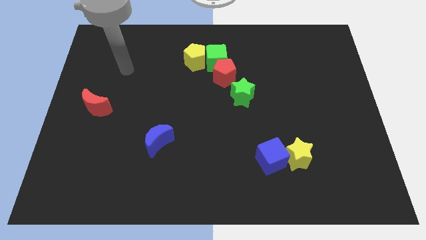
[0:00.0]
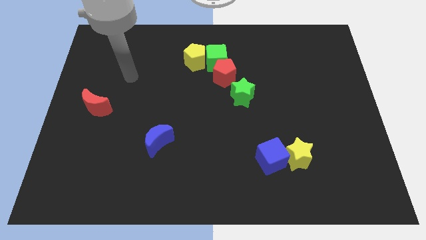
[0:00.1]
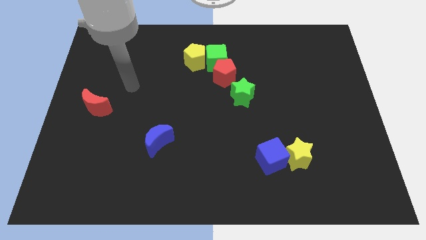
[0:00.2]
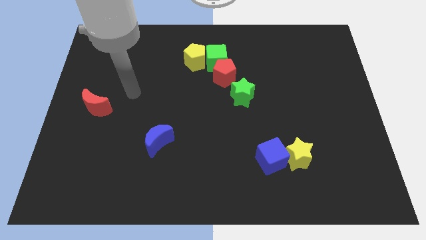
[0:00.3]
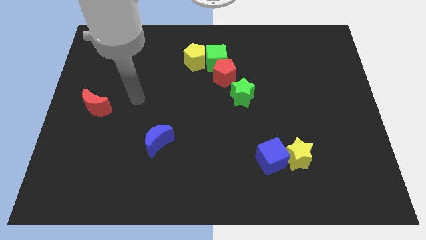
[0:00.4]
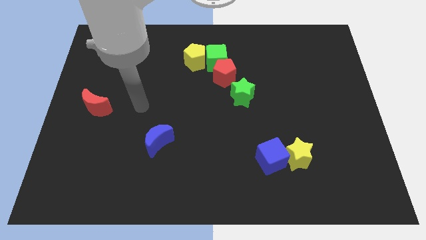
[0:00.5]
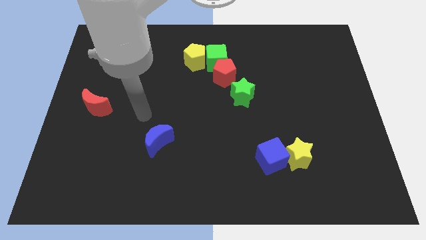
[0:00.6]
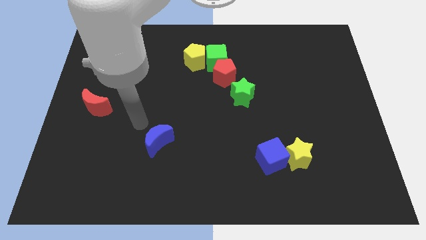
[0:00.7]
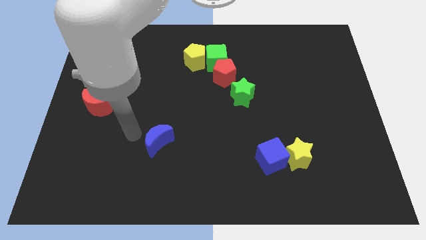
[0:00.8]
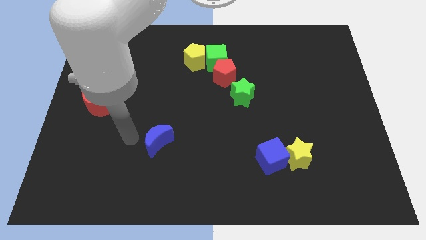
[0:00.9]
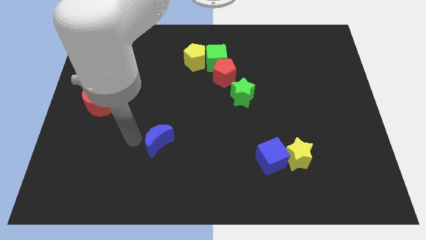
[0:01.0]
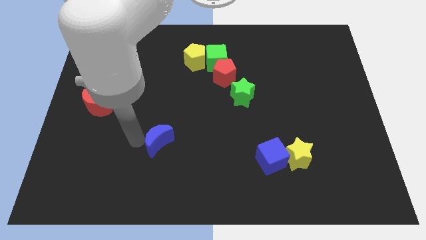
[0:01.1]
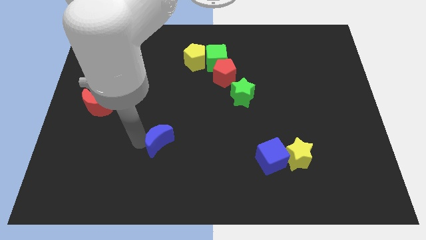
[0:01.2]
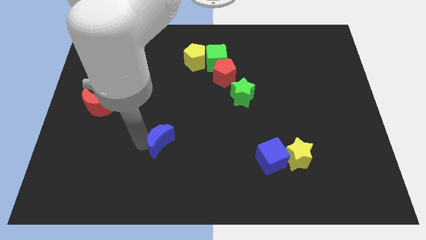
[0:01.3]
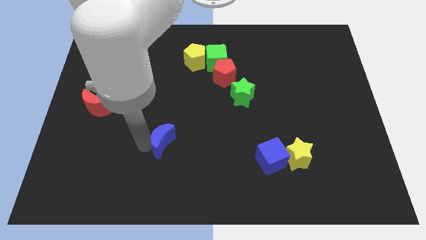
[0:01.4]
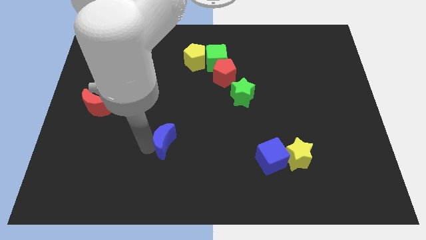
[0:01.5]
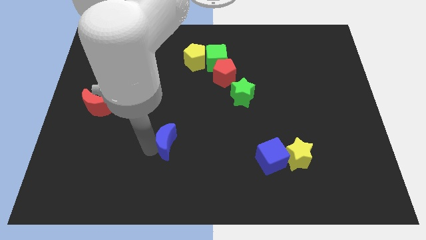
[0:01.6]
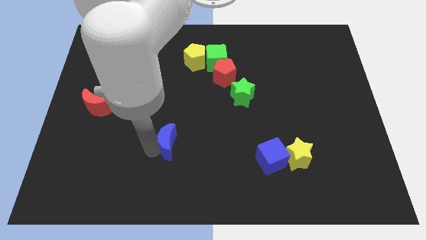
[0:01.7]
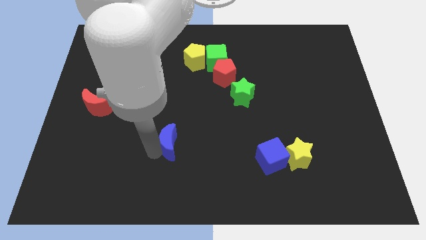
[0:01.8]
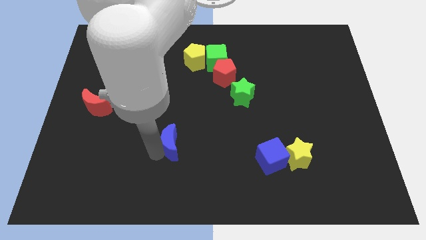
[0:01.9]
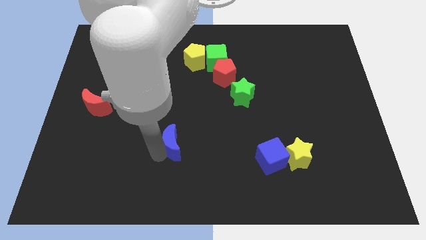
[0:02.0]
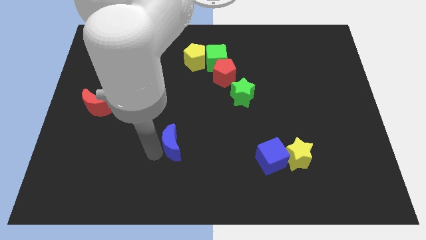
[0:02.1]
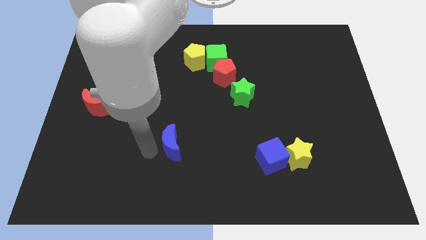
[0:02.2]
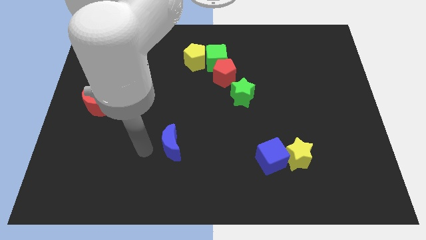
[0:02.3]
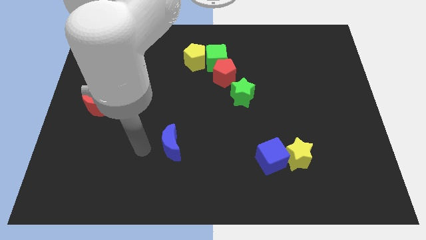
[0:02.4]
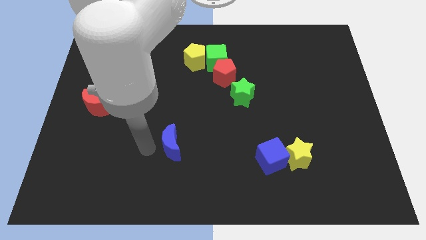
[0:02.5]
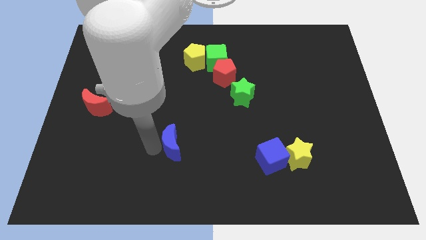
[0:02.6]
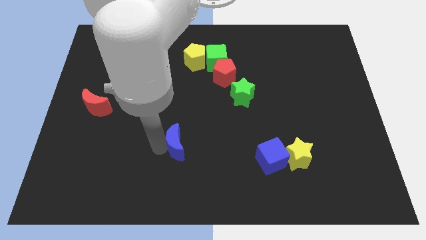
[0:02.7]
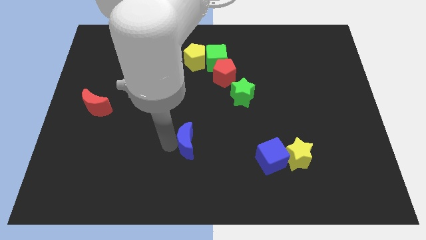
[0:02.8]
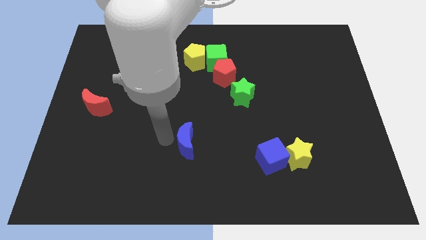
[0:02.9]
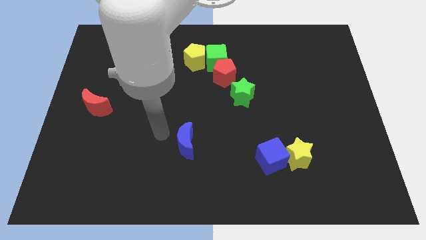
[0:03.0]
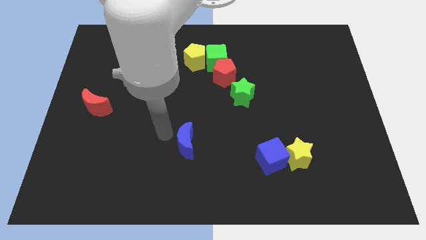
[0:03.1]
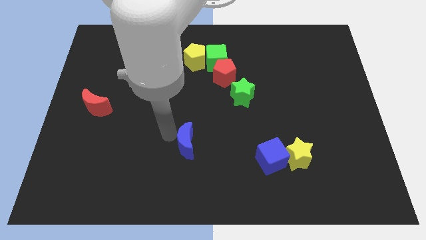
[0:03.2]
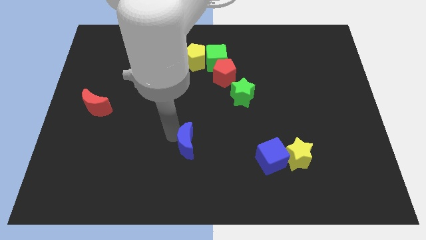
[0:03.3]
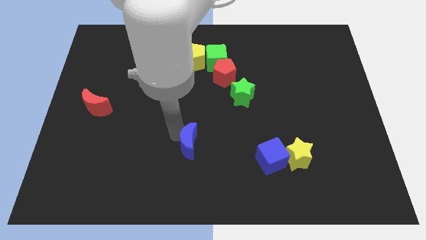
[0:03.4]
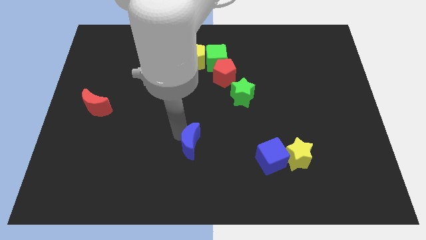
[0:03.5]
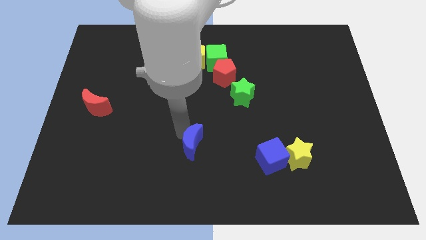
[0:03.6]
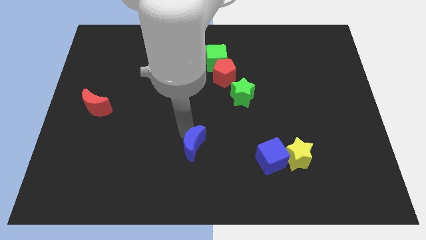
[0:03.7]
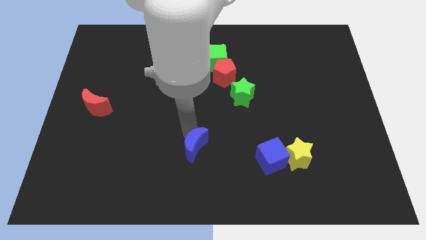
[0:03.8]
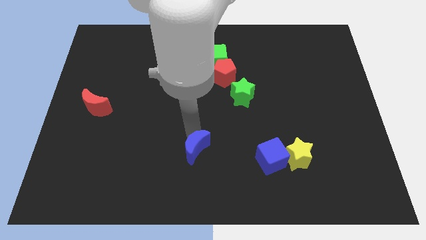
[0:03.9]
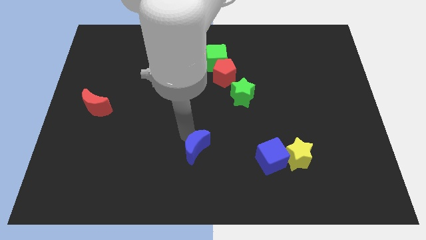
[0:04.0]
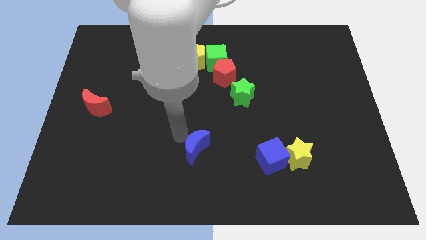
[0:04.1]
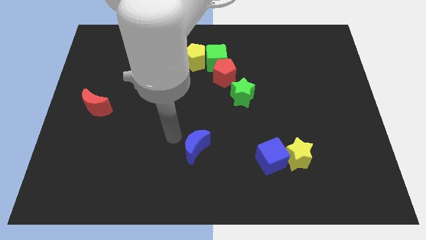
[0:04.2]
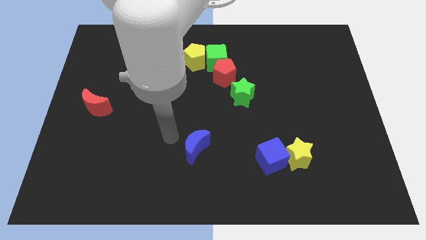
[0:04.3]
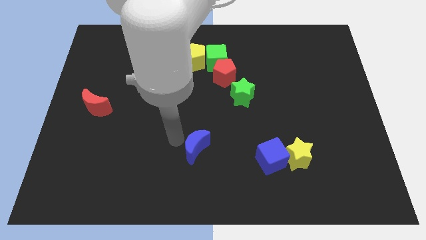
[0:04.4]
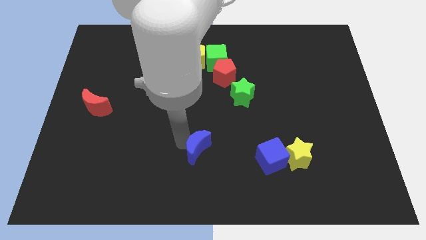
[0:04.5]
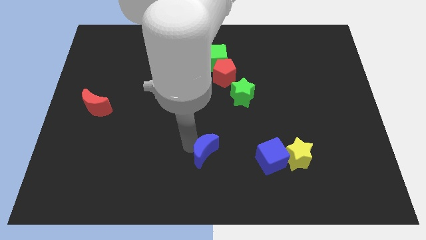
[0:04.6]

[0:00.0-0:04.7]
push the blue moon left of the blue cube

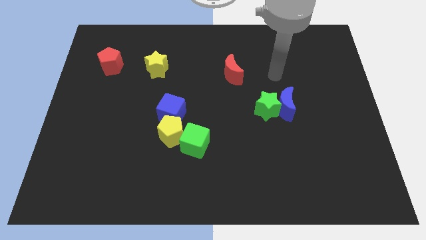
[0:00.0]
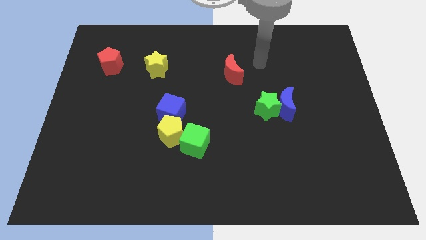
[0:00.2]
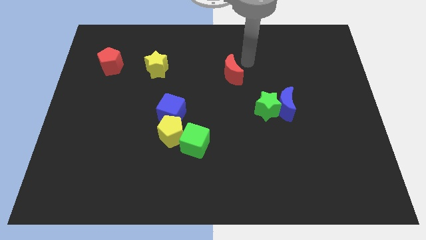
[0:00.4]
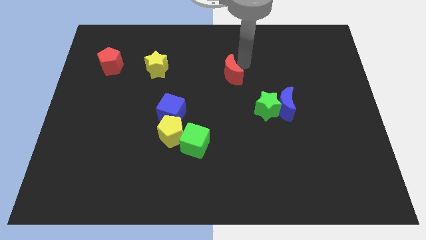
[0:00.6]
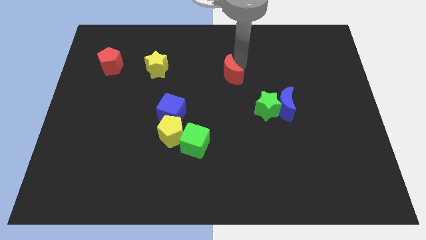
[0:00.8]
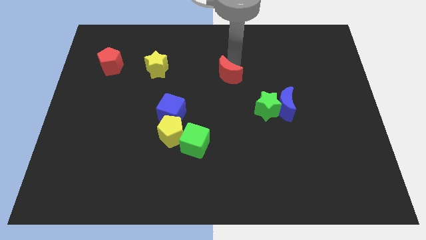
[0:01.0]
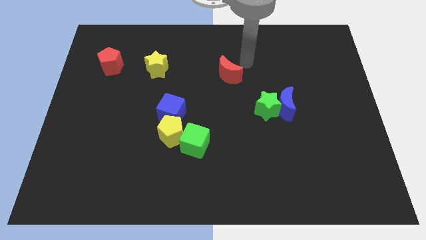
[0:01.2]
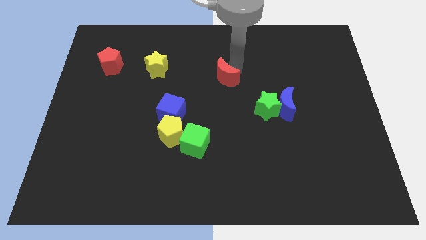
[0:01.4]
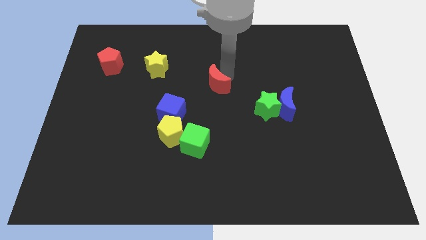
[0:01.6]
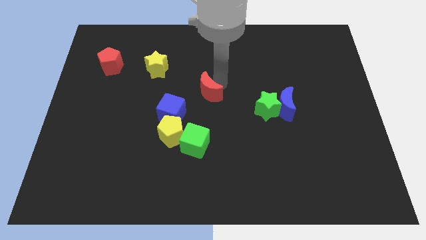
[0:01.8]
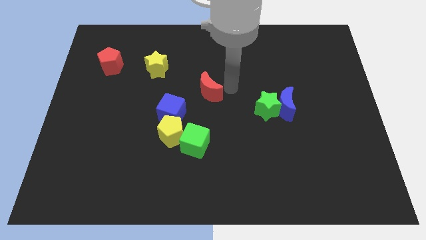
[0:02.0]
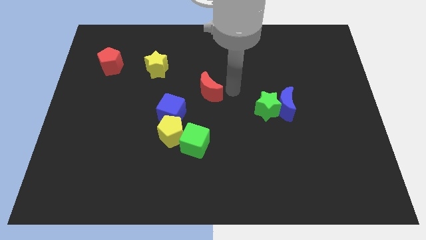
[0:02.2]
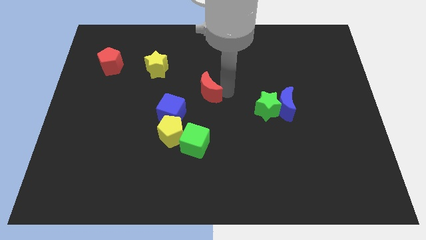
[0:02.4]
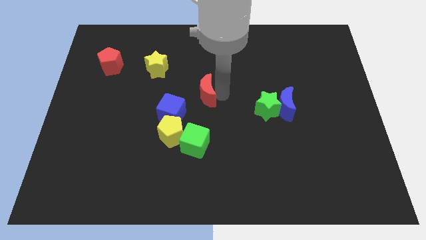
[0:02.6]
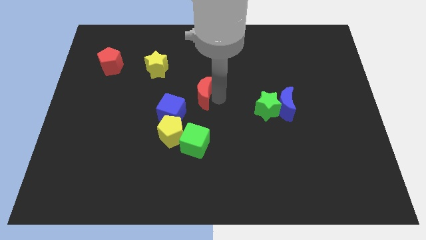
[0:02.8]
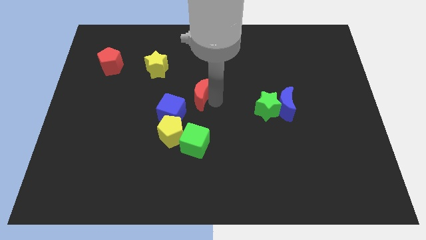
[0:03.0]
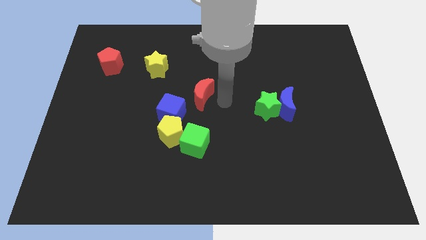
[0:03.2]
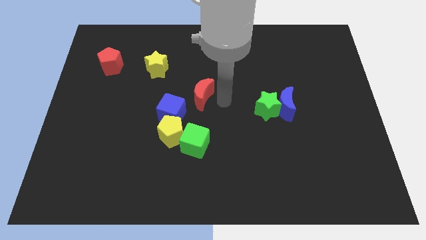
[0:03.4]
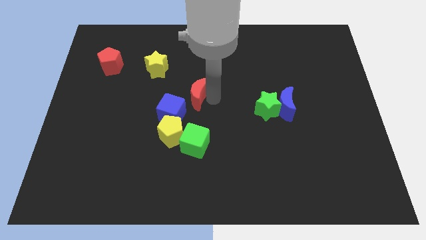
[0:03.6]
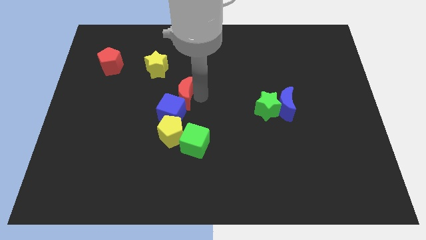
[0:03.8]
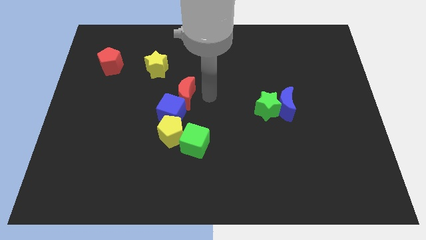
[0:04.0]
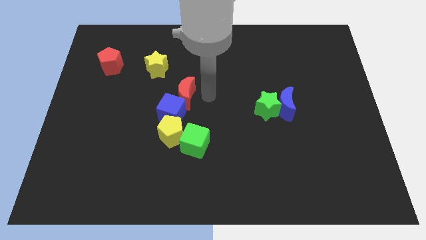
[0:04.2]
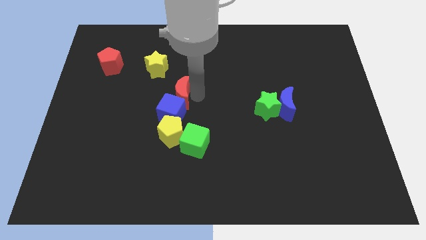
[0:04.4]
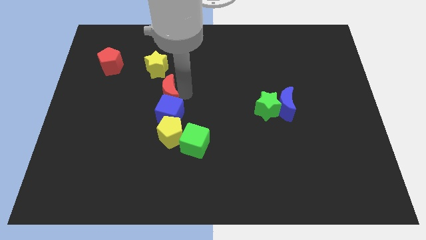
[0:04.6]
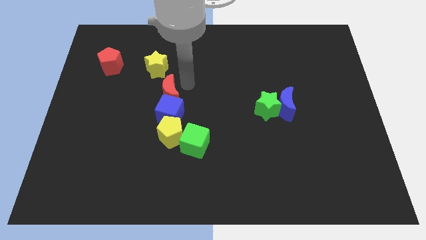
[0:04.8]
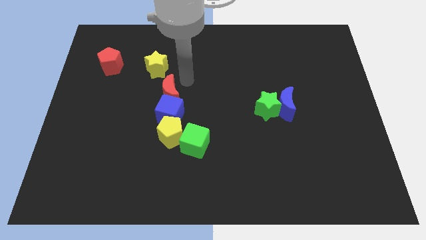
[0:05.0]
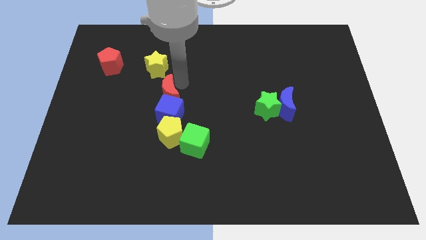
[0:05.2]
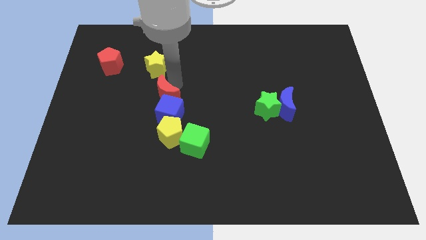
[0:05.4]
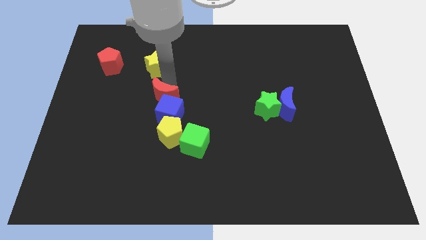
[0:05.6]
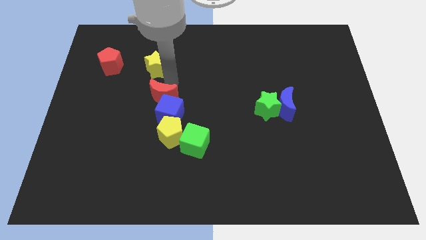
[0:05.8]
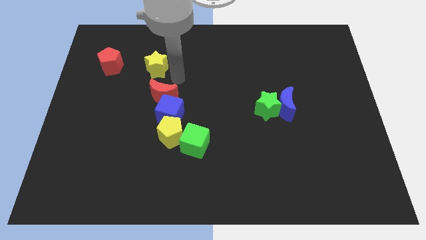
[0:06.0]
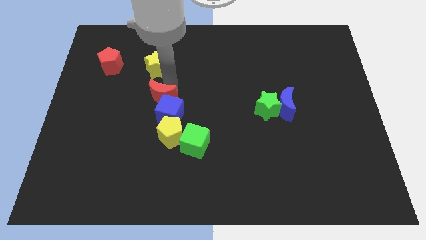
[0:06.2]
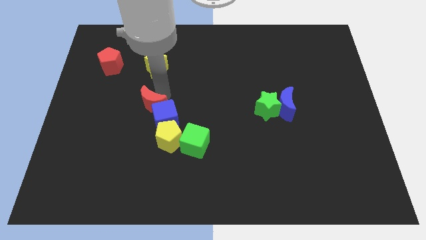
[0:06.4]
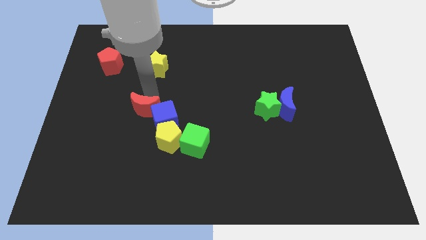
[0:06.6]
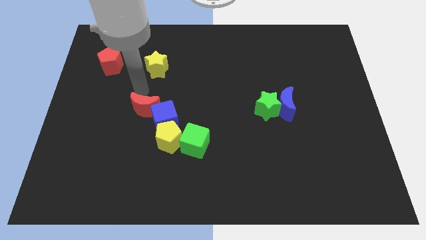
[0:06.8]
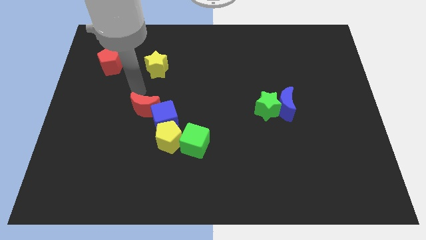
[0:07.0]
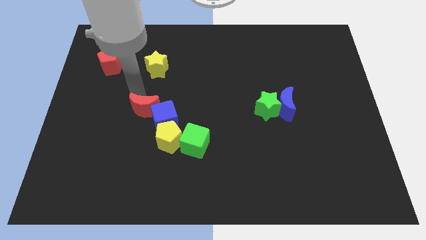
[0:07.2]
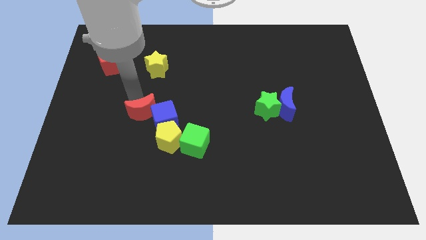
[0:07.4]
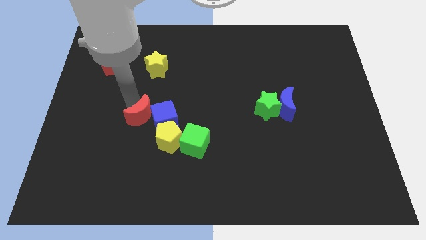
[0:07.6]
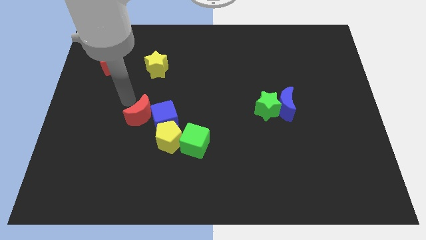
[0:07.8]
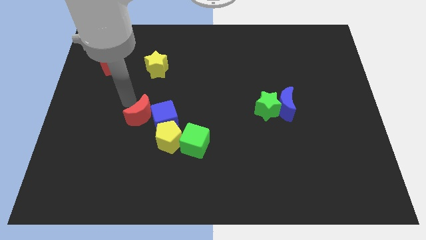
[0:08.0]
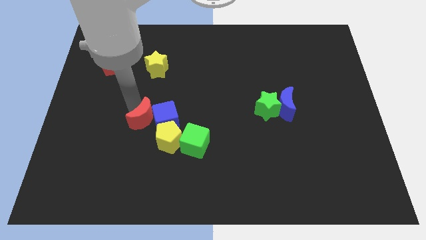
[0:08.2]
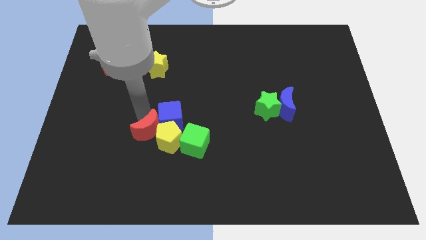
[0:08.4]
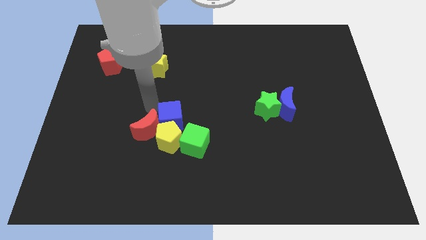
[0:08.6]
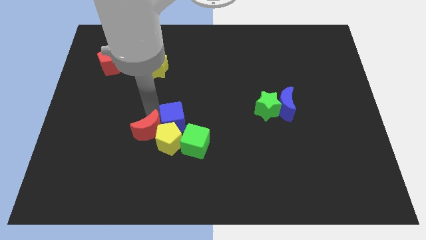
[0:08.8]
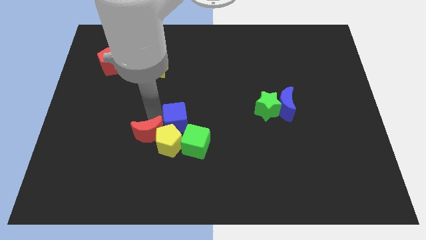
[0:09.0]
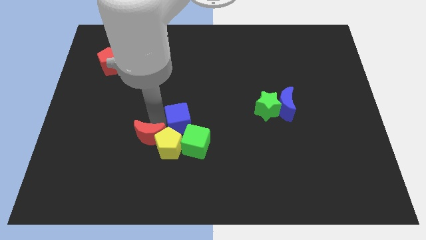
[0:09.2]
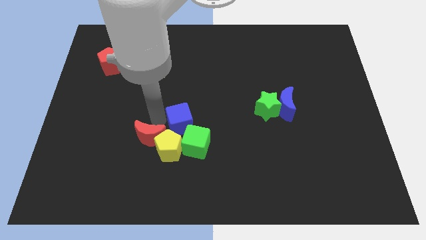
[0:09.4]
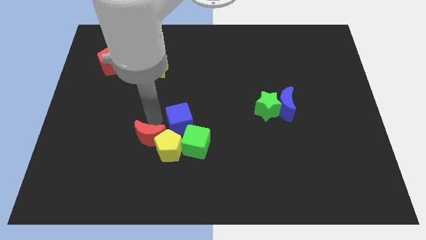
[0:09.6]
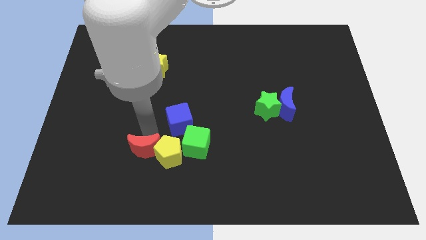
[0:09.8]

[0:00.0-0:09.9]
slide the red moon to the bottom left of the yellow pentagon
